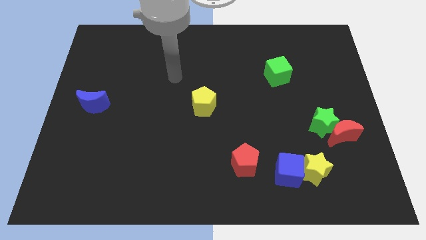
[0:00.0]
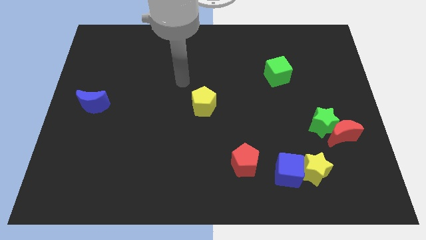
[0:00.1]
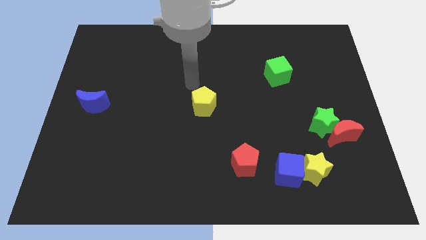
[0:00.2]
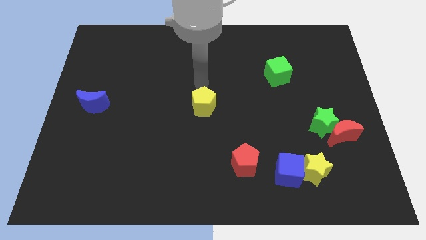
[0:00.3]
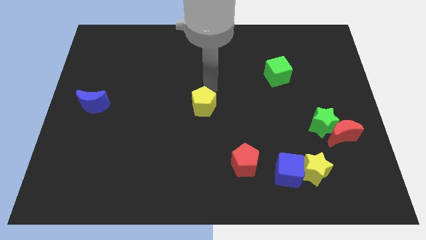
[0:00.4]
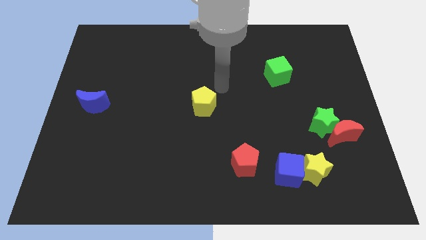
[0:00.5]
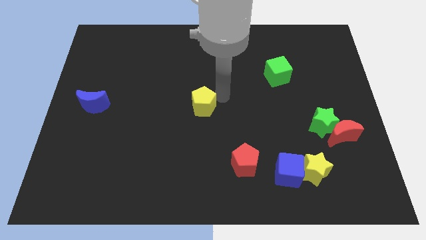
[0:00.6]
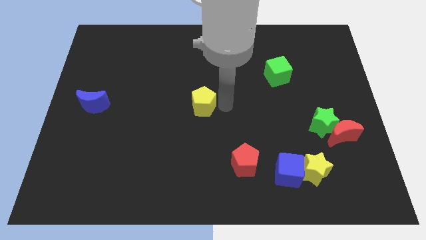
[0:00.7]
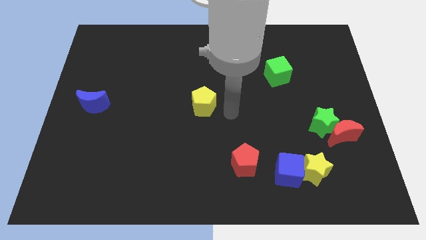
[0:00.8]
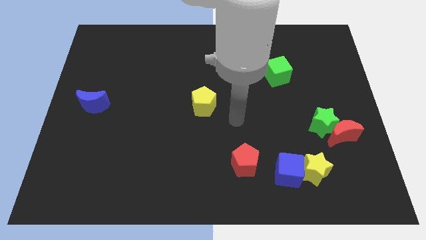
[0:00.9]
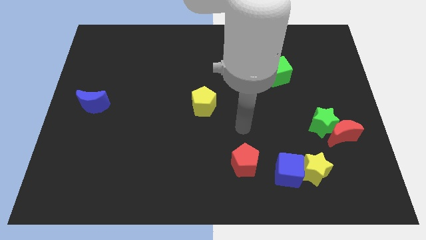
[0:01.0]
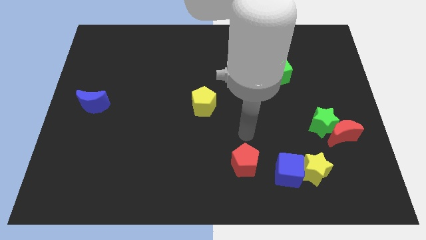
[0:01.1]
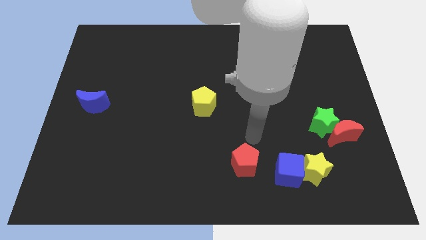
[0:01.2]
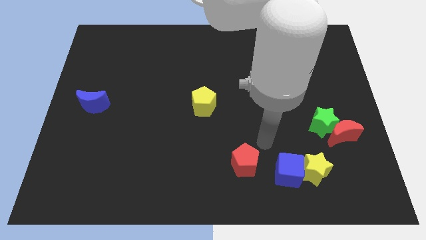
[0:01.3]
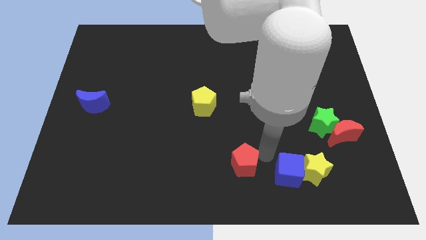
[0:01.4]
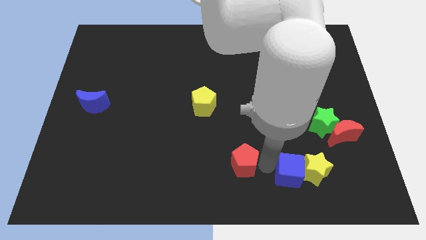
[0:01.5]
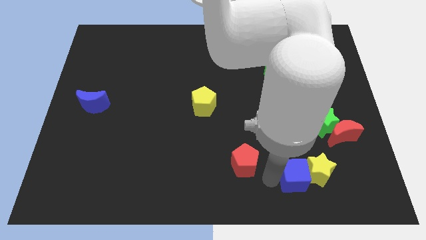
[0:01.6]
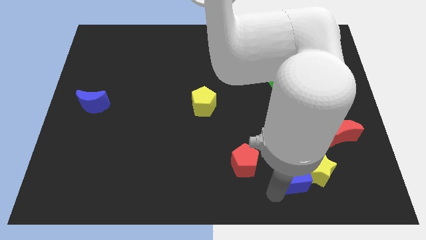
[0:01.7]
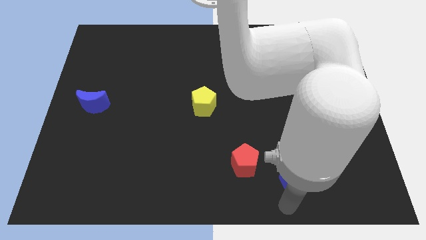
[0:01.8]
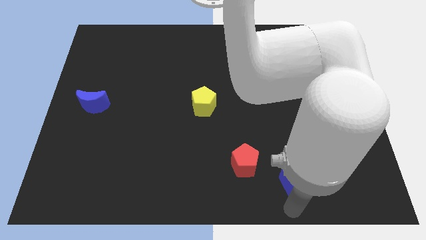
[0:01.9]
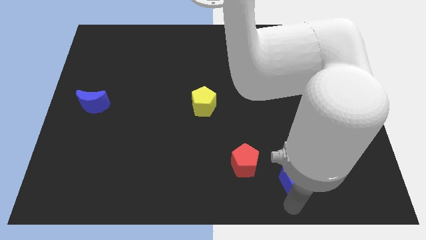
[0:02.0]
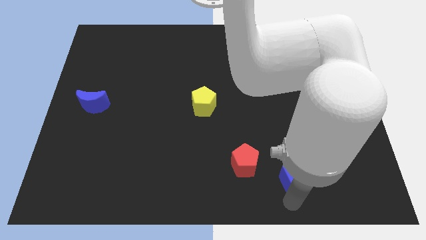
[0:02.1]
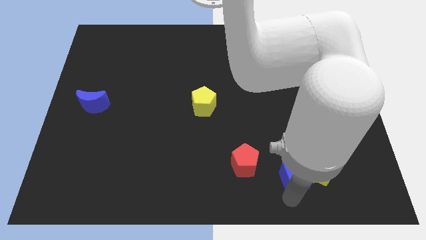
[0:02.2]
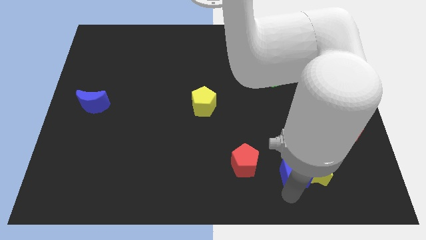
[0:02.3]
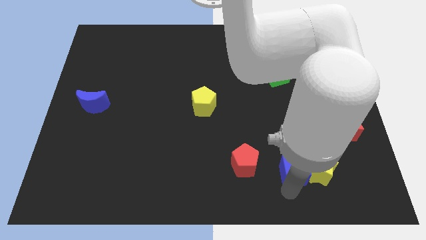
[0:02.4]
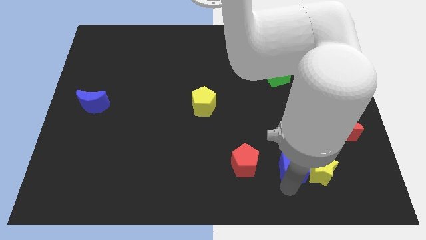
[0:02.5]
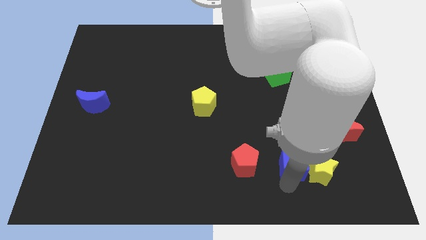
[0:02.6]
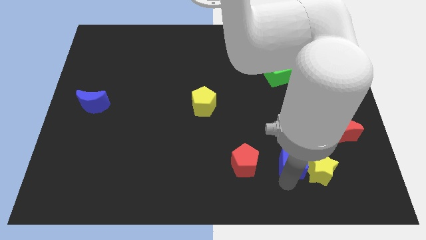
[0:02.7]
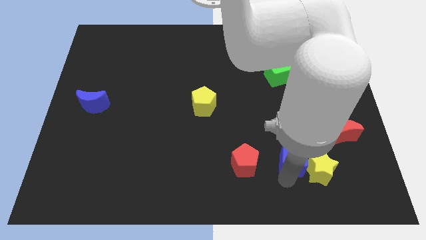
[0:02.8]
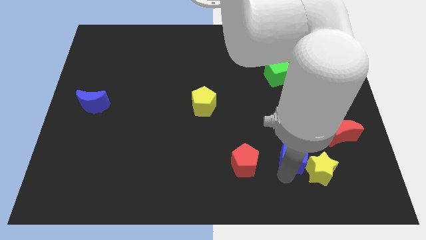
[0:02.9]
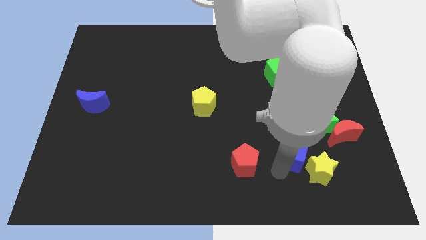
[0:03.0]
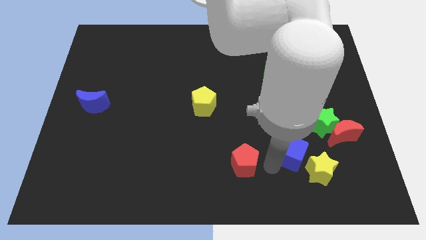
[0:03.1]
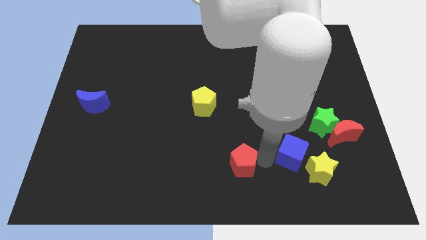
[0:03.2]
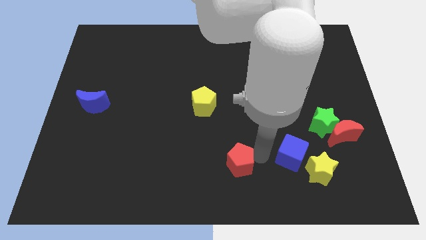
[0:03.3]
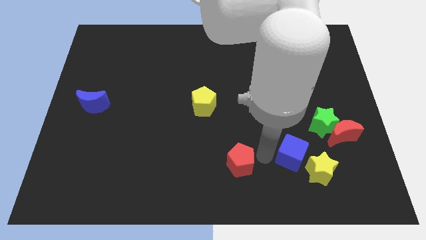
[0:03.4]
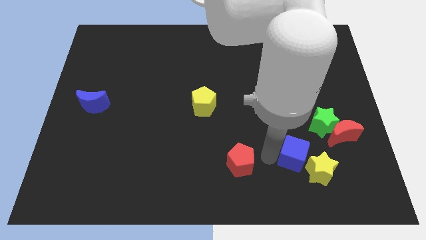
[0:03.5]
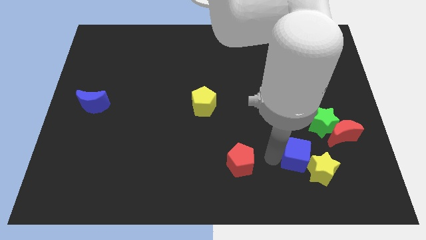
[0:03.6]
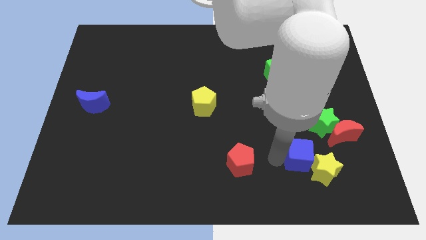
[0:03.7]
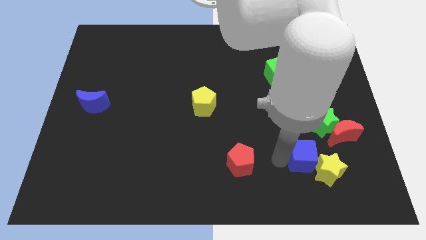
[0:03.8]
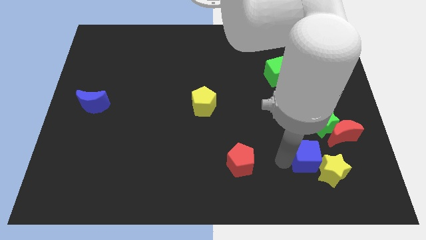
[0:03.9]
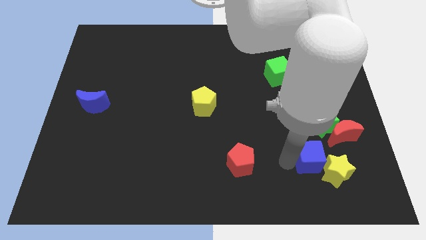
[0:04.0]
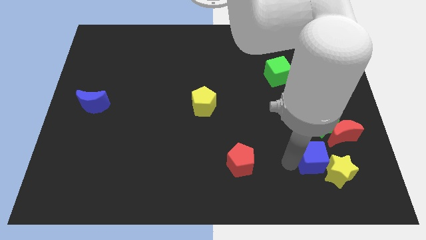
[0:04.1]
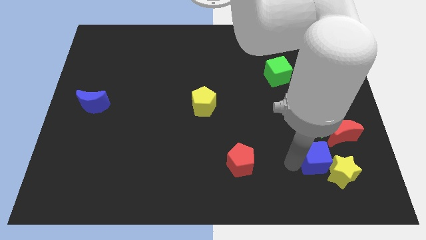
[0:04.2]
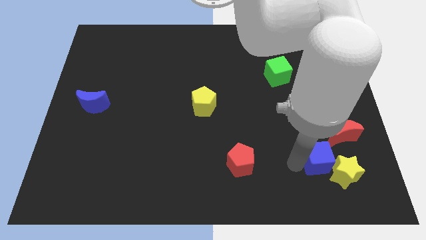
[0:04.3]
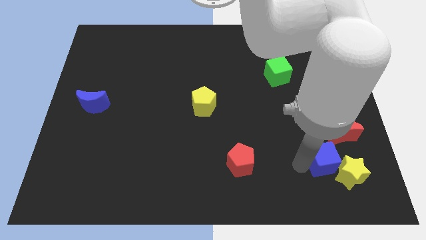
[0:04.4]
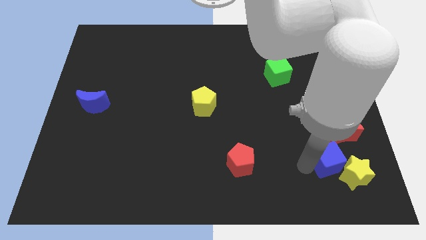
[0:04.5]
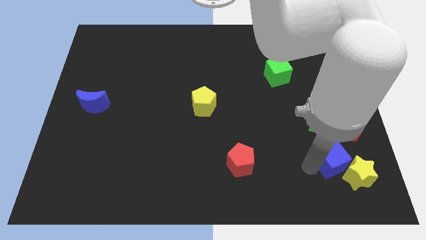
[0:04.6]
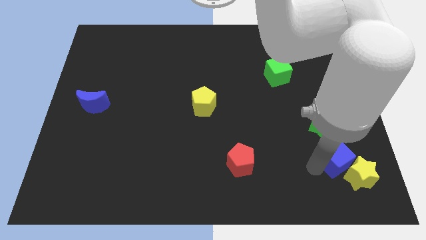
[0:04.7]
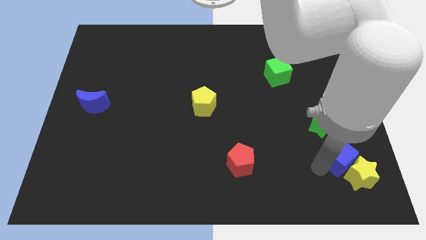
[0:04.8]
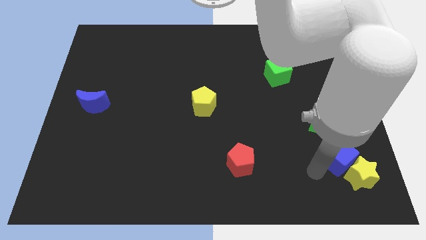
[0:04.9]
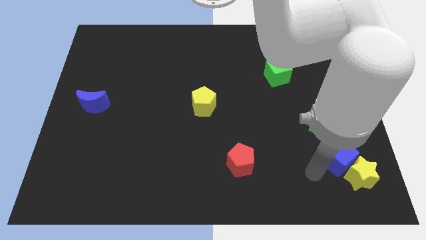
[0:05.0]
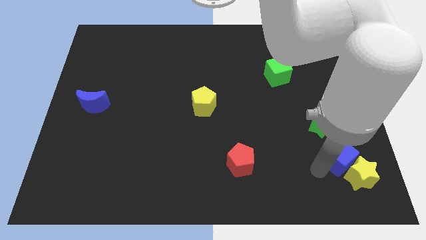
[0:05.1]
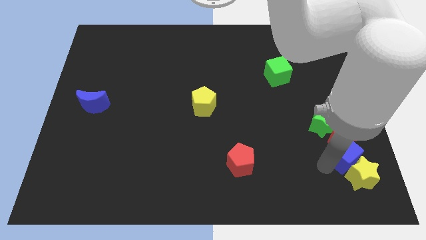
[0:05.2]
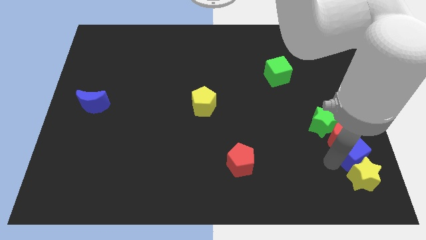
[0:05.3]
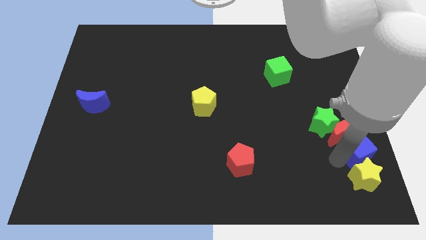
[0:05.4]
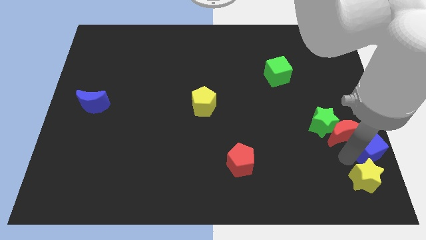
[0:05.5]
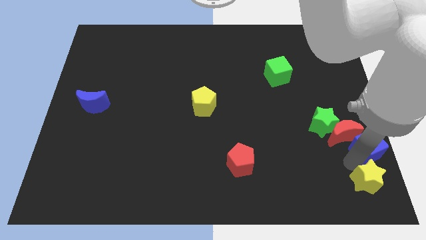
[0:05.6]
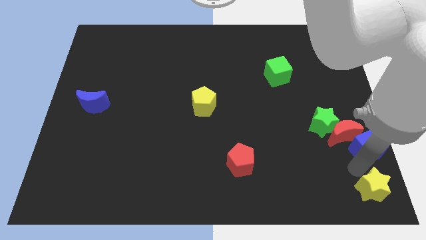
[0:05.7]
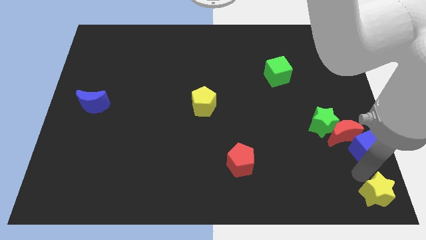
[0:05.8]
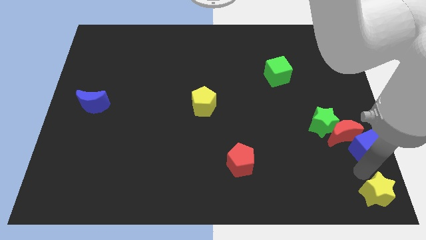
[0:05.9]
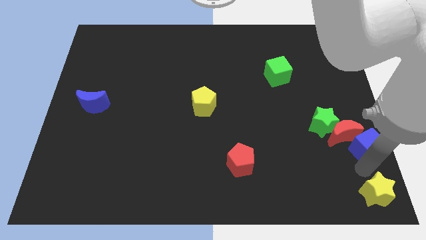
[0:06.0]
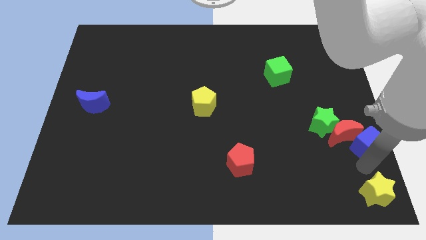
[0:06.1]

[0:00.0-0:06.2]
put the blue cube to the right side
